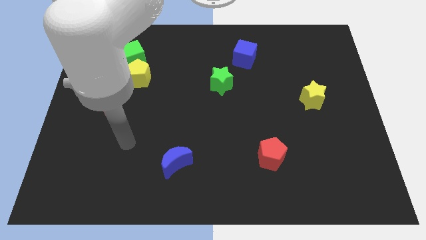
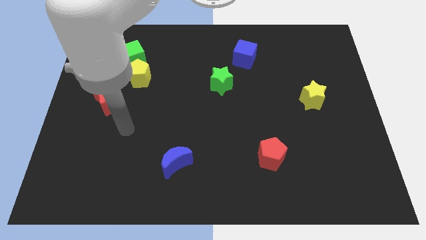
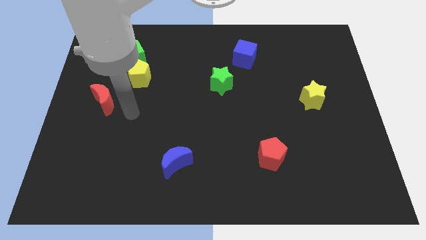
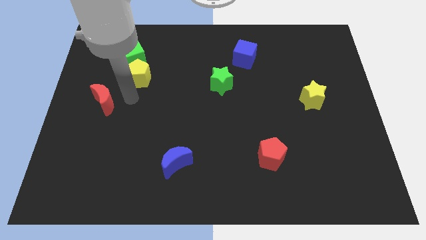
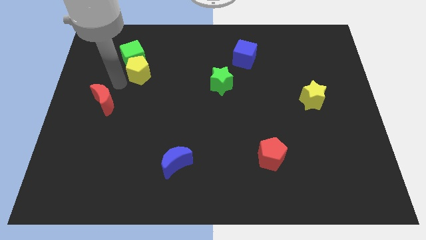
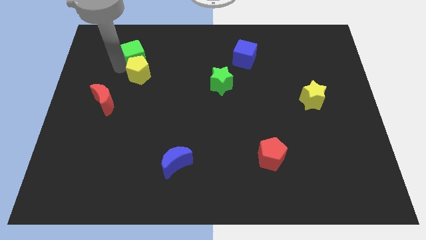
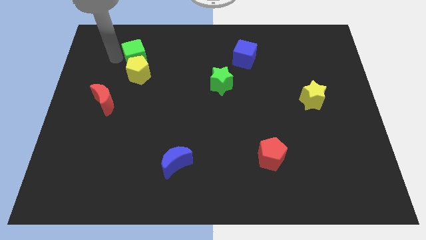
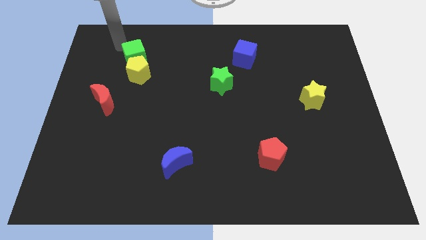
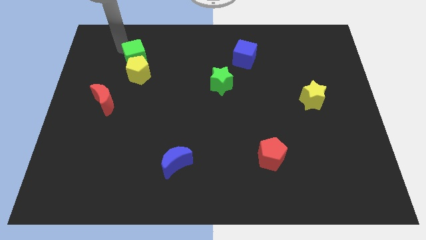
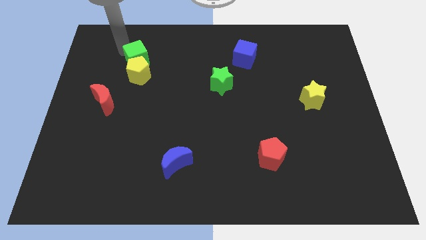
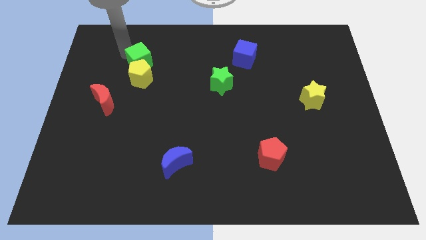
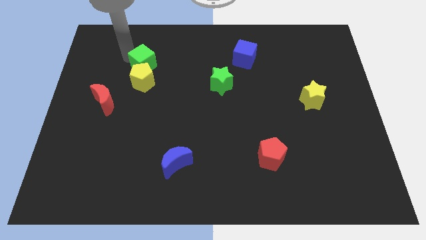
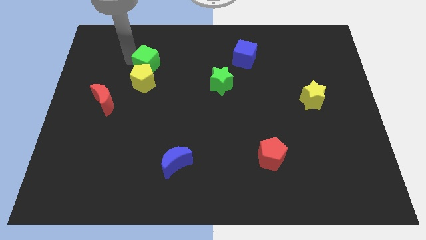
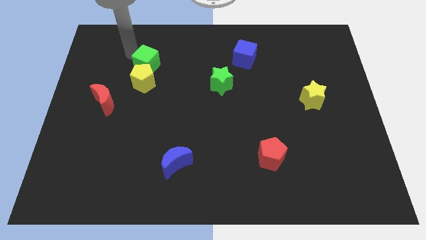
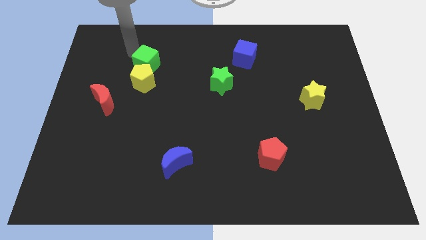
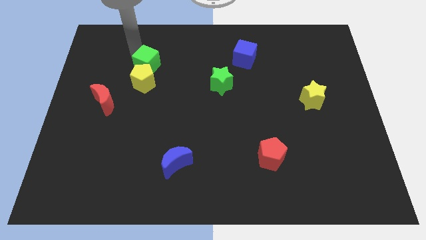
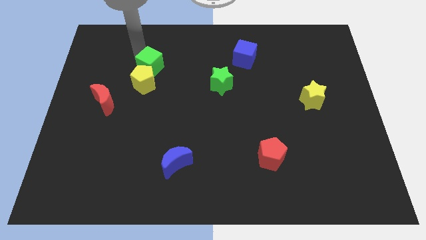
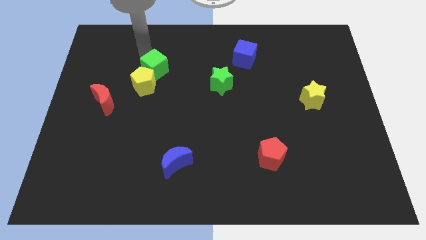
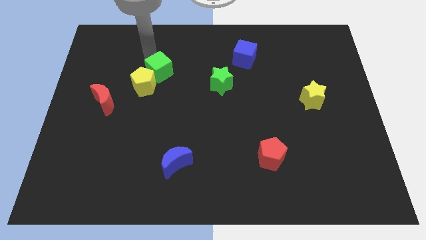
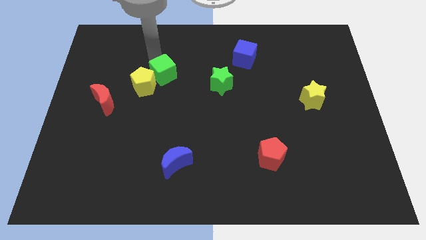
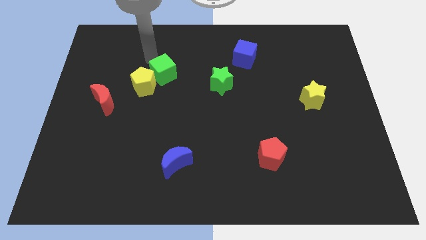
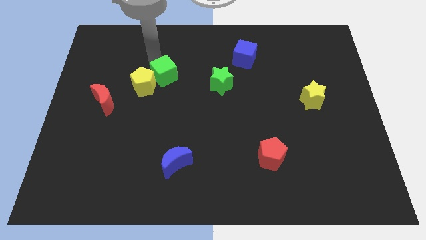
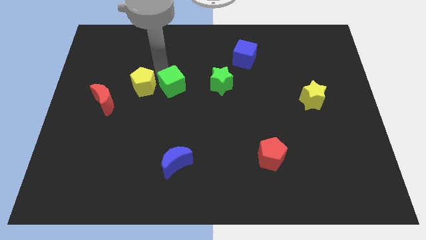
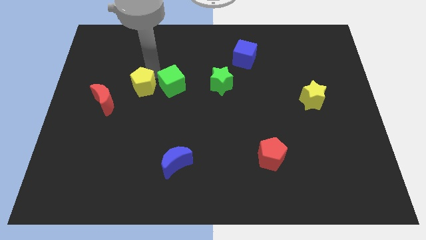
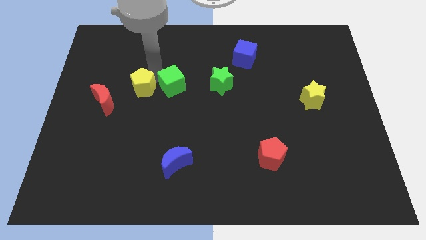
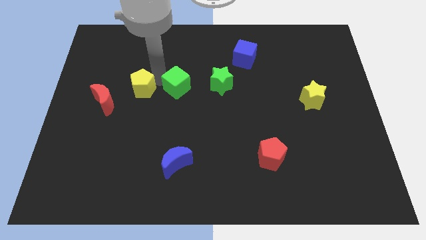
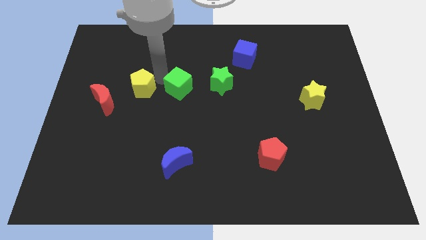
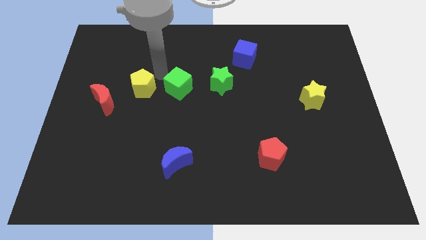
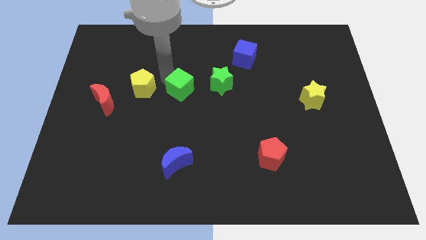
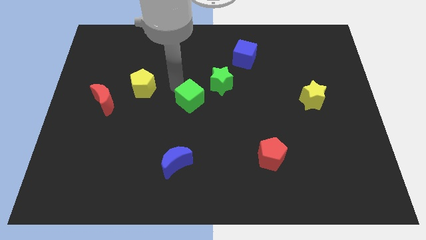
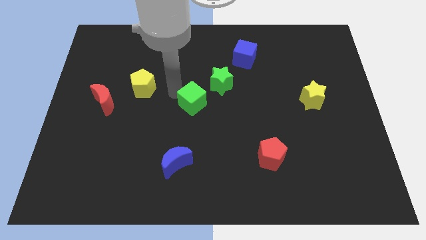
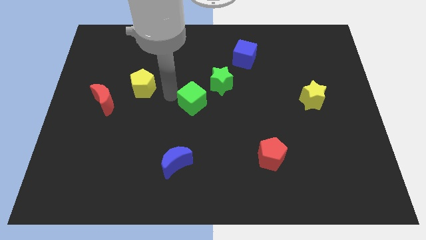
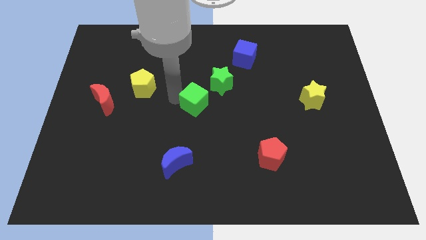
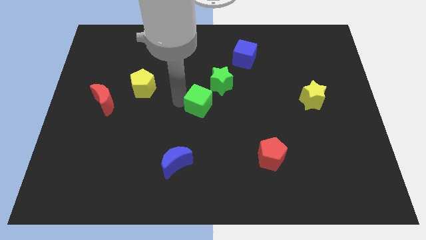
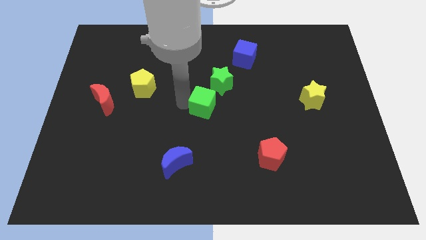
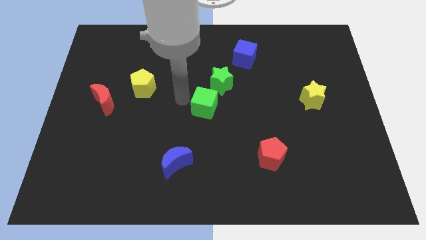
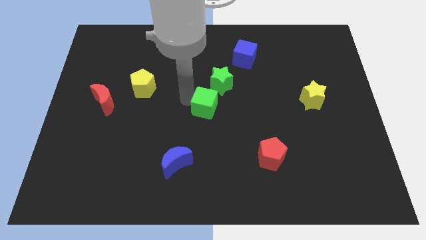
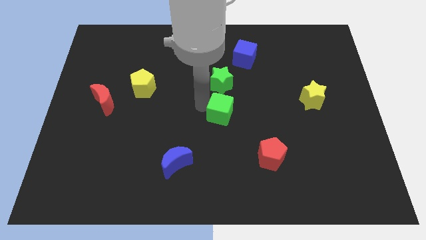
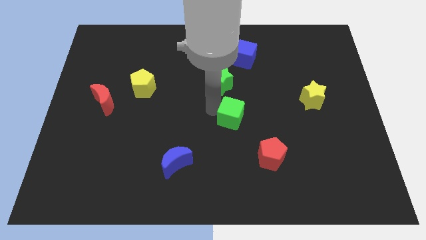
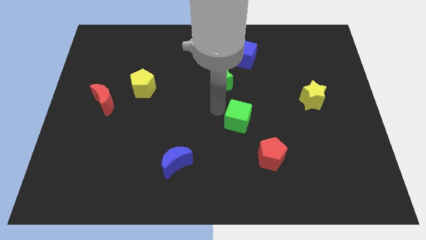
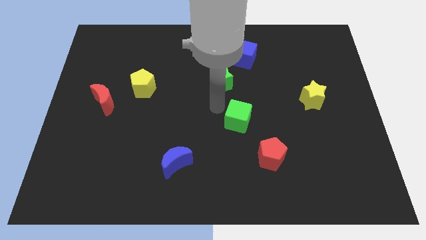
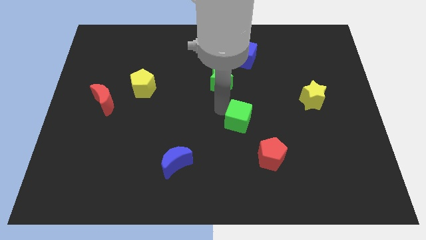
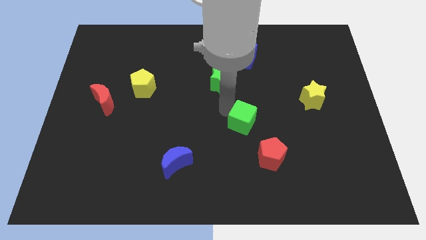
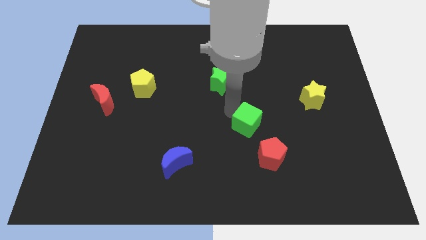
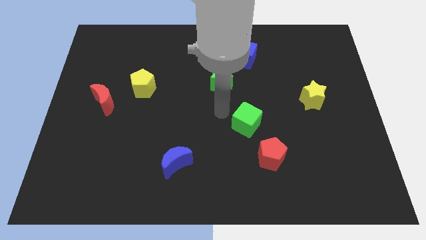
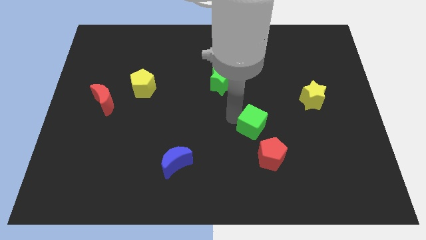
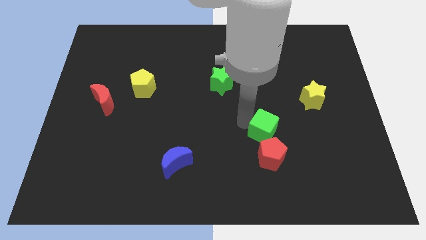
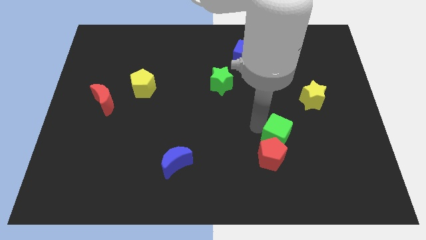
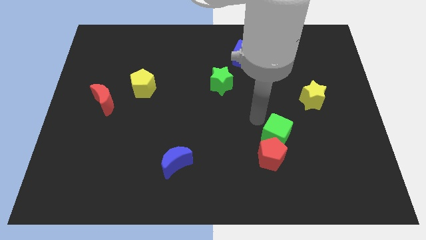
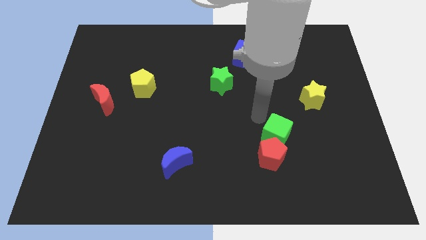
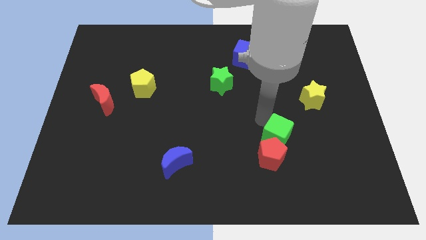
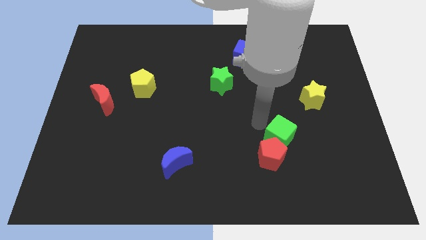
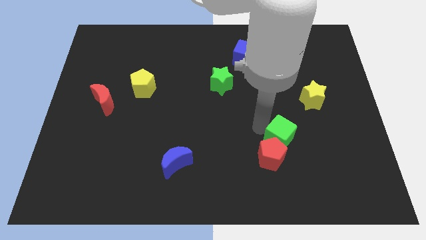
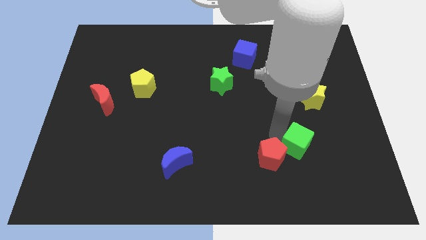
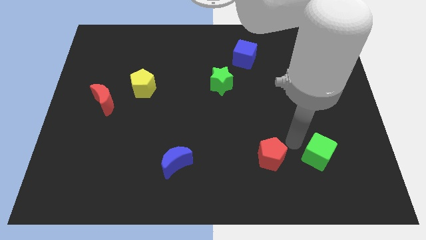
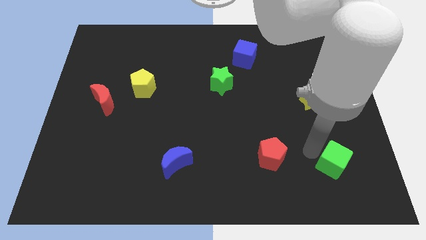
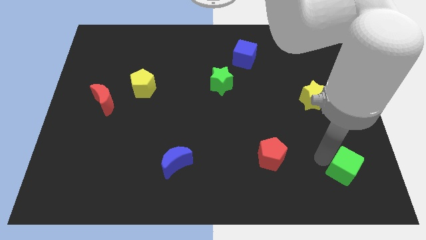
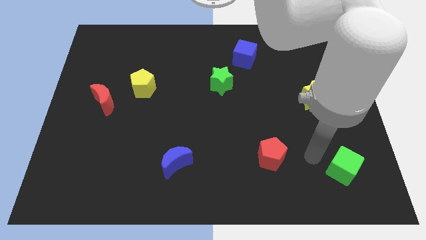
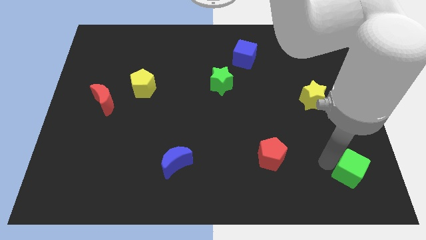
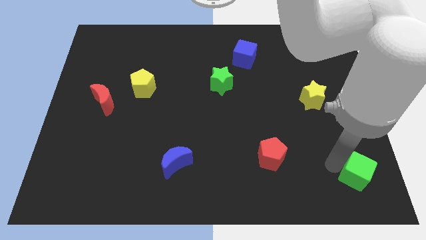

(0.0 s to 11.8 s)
put the green cube to the bottom right corner
